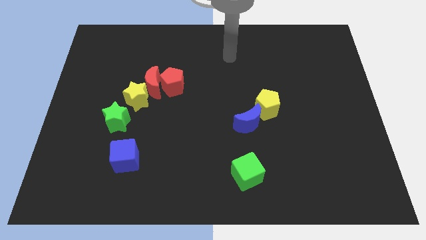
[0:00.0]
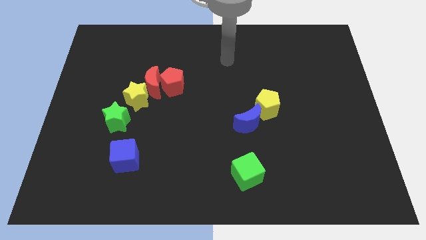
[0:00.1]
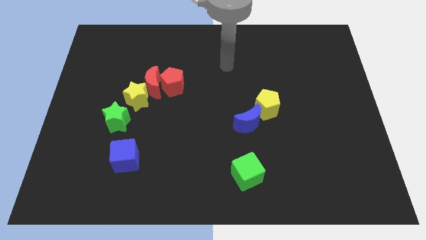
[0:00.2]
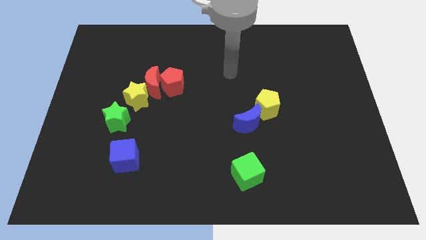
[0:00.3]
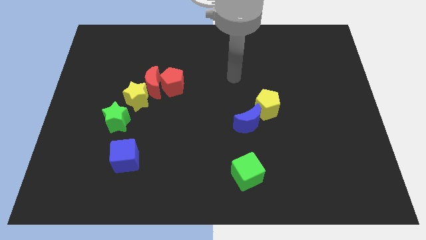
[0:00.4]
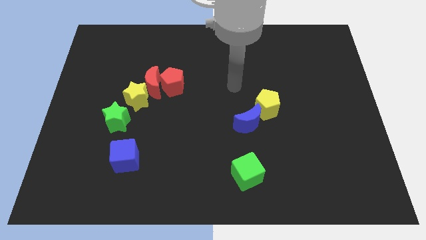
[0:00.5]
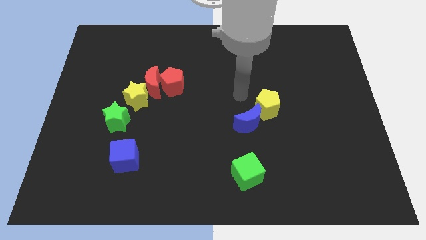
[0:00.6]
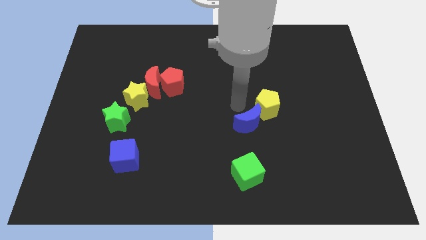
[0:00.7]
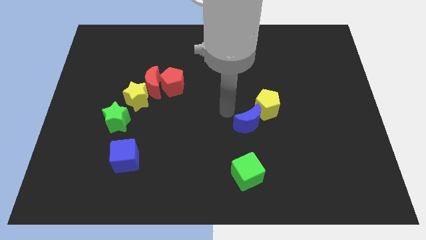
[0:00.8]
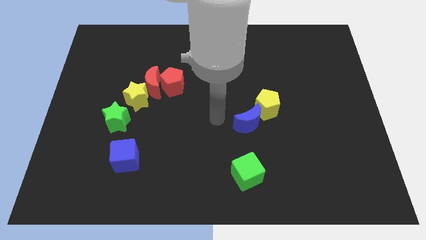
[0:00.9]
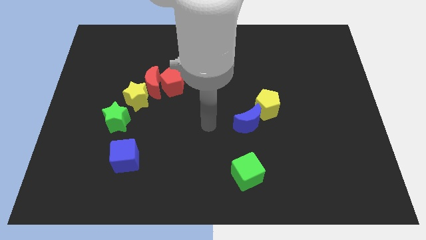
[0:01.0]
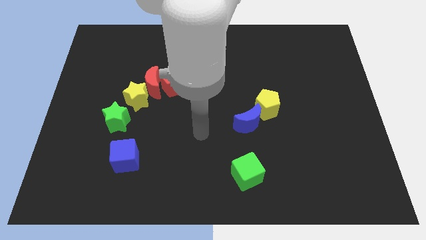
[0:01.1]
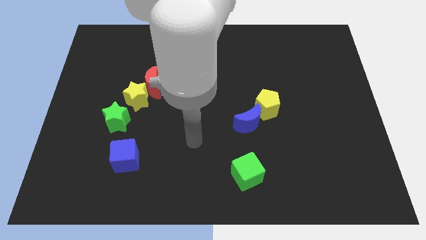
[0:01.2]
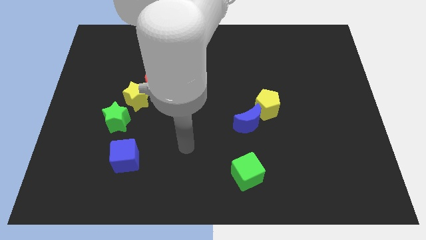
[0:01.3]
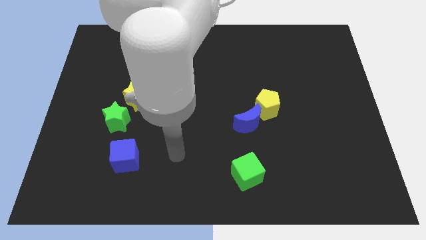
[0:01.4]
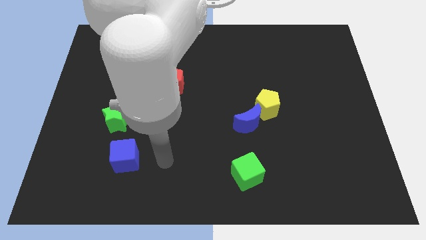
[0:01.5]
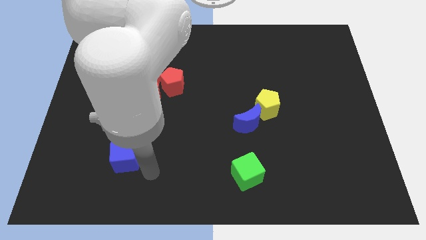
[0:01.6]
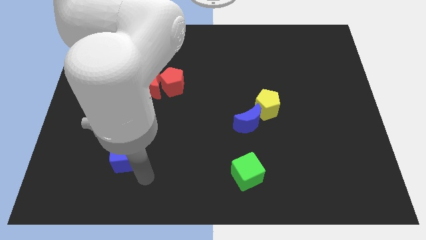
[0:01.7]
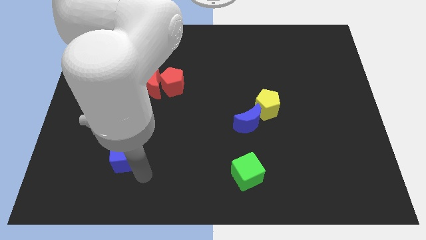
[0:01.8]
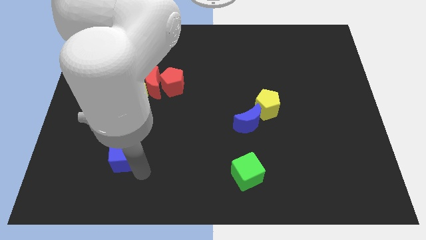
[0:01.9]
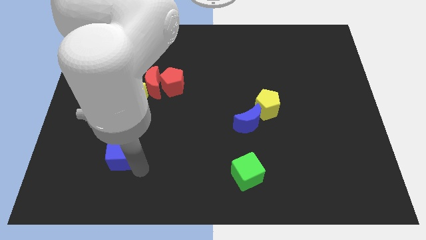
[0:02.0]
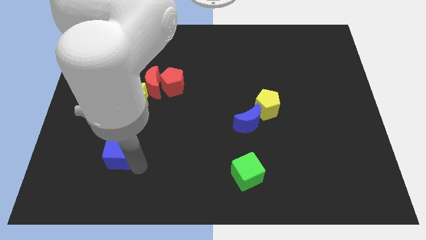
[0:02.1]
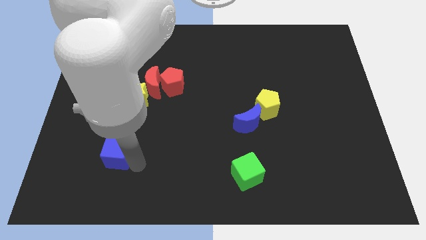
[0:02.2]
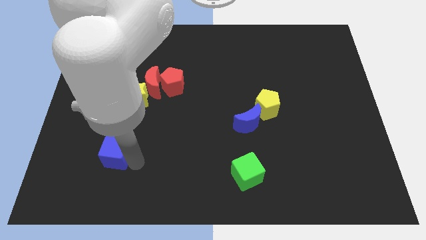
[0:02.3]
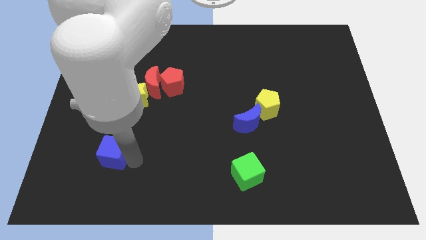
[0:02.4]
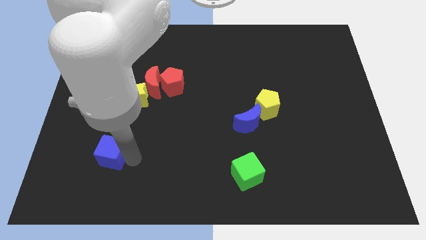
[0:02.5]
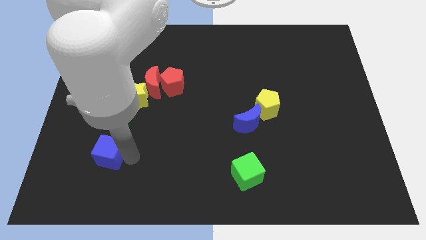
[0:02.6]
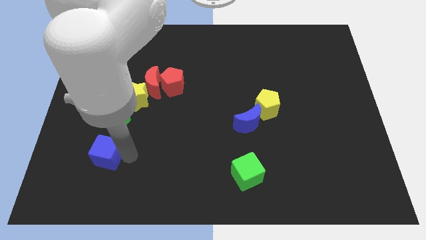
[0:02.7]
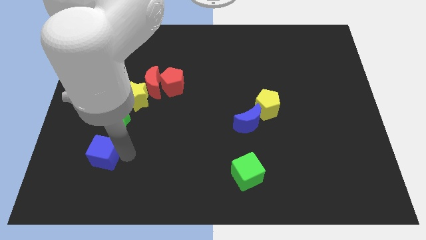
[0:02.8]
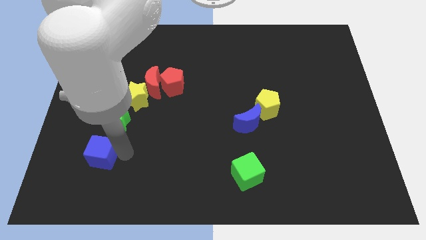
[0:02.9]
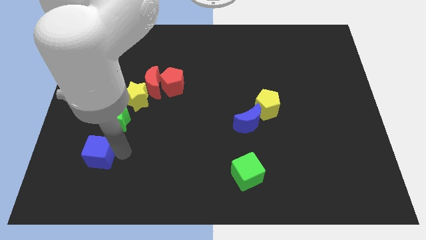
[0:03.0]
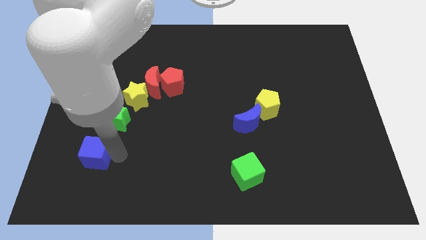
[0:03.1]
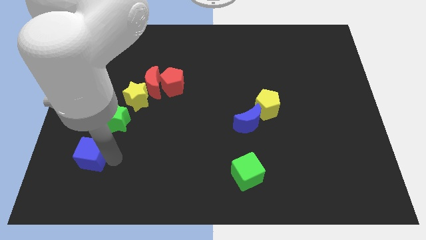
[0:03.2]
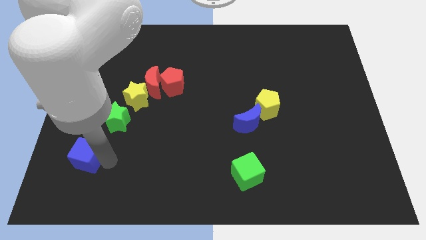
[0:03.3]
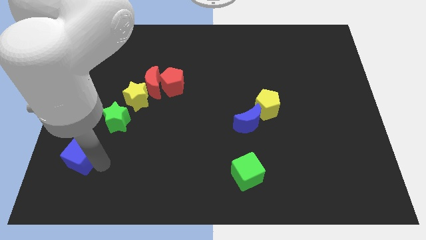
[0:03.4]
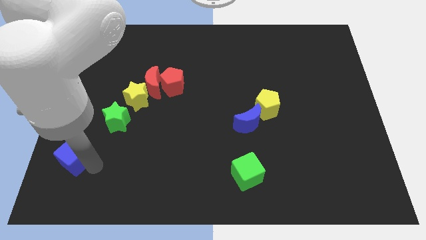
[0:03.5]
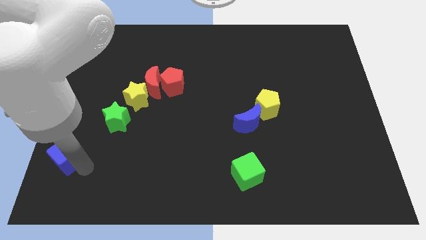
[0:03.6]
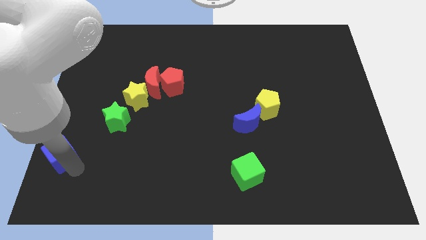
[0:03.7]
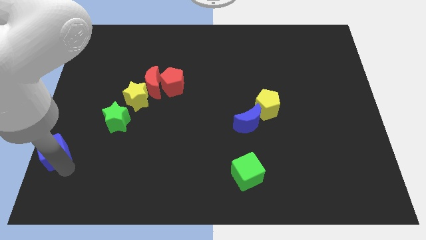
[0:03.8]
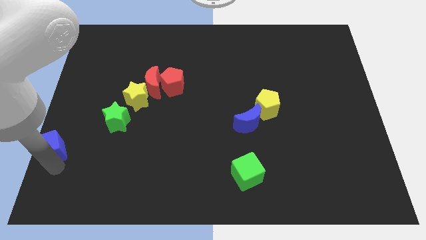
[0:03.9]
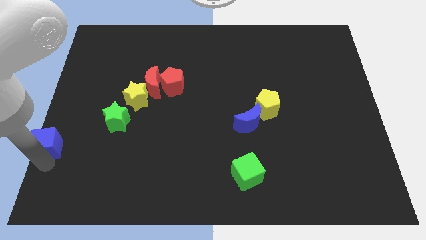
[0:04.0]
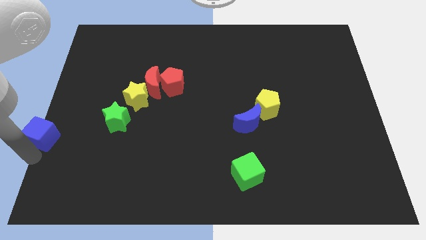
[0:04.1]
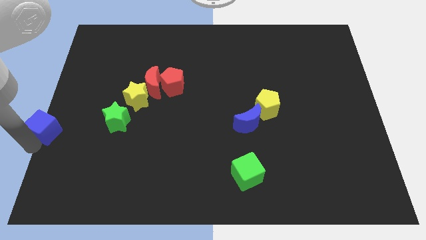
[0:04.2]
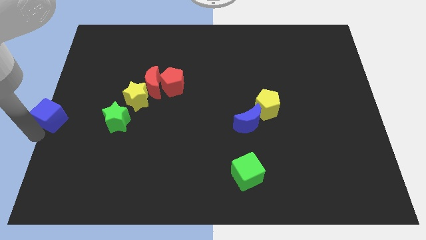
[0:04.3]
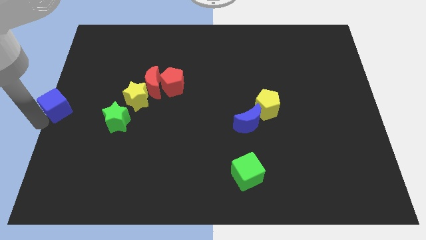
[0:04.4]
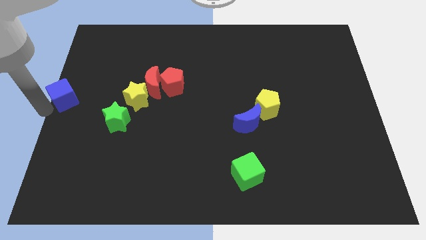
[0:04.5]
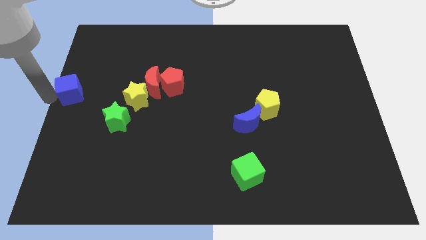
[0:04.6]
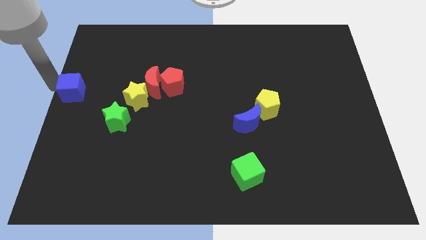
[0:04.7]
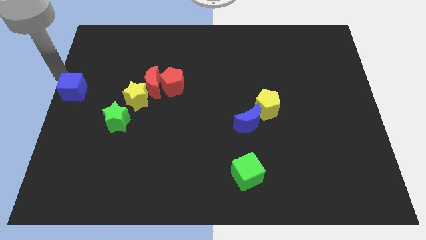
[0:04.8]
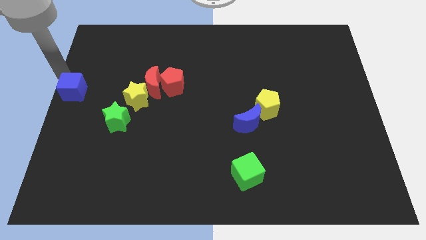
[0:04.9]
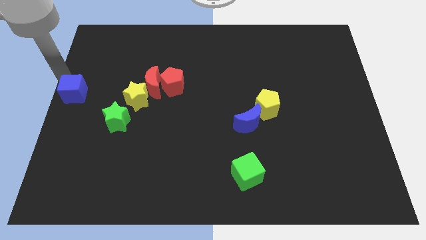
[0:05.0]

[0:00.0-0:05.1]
push the blue cube left of the yellow star

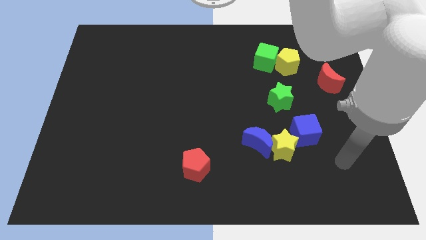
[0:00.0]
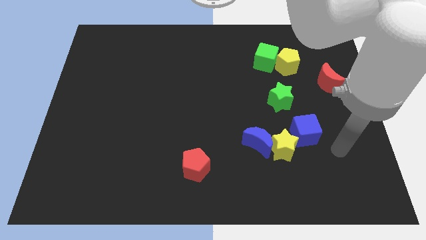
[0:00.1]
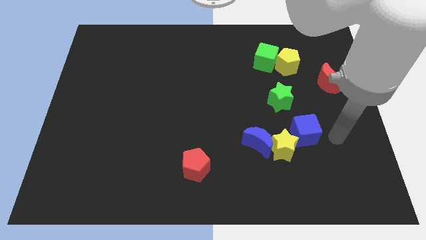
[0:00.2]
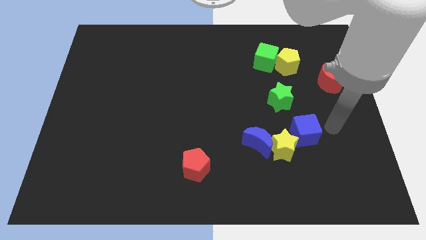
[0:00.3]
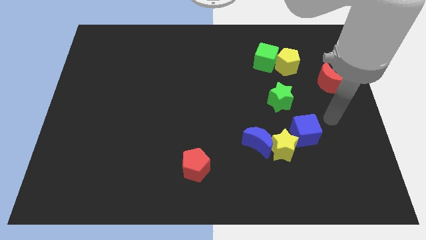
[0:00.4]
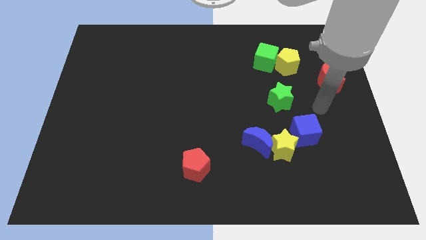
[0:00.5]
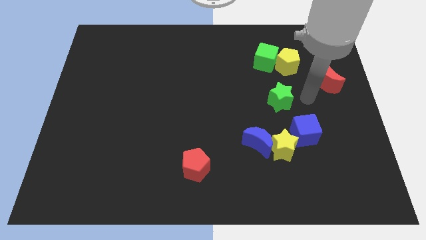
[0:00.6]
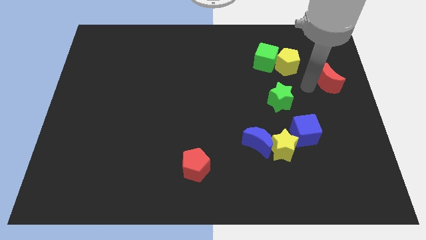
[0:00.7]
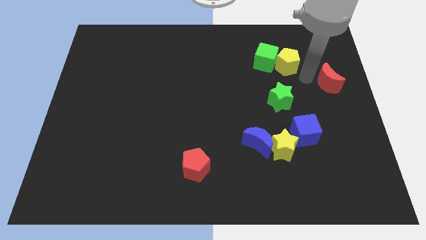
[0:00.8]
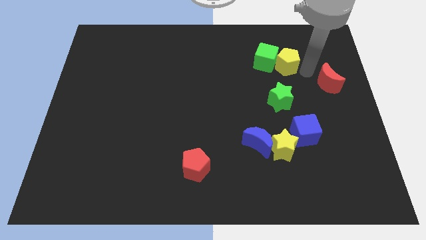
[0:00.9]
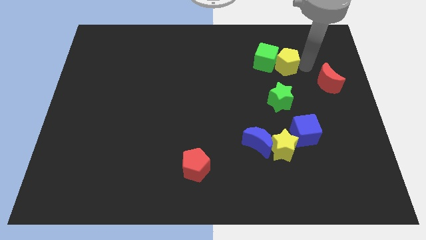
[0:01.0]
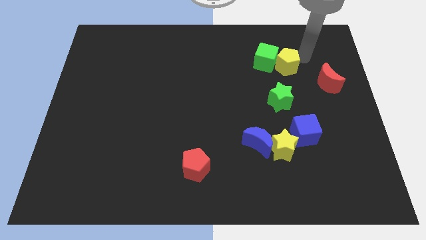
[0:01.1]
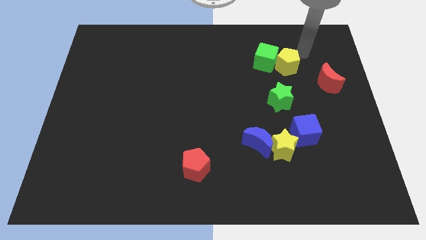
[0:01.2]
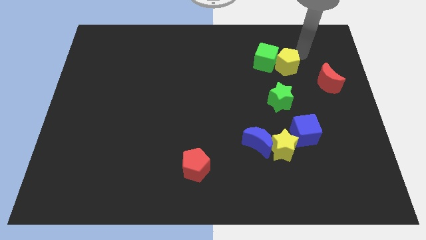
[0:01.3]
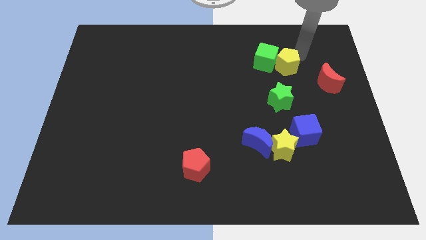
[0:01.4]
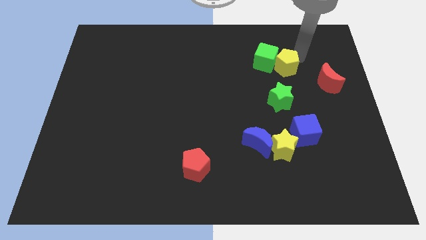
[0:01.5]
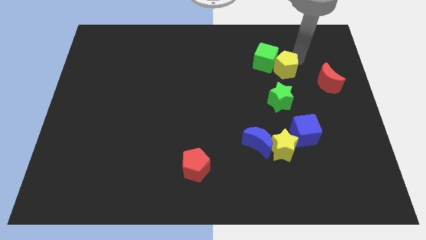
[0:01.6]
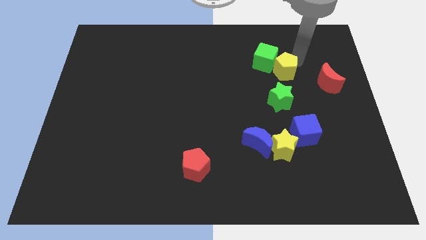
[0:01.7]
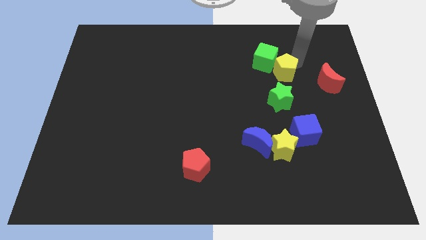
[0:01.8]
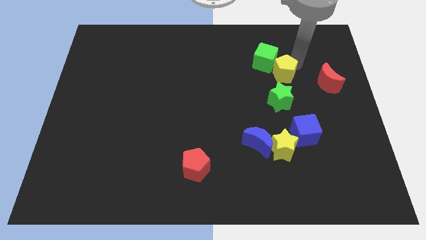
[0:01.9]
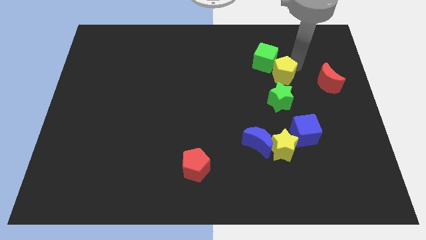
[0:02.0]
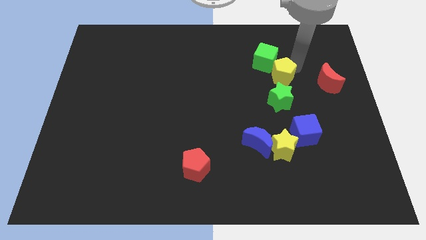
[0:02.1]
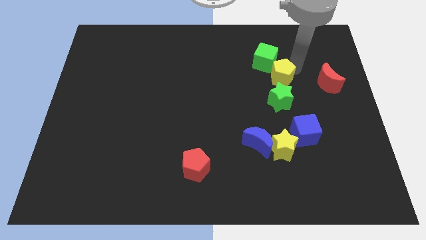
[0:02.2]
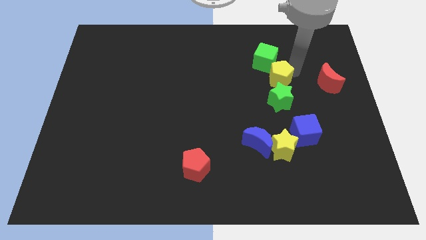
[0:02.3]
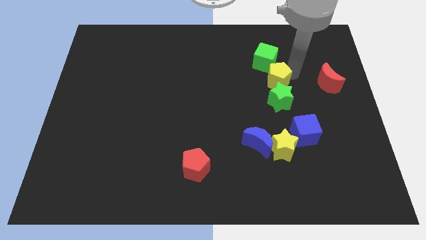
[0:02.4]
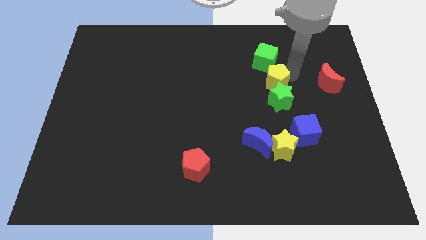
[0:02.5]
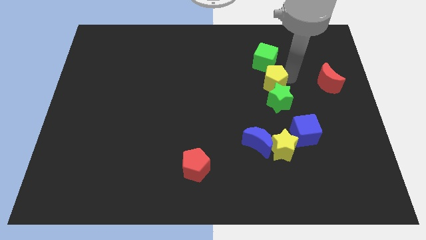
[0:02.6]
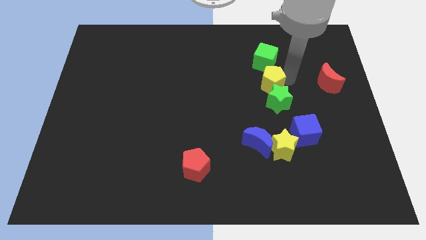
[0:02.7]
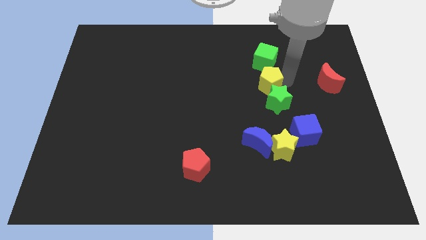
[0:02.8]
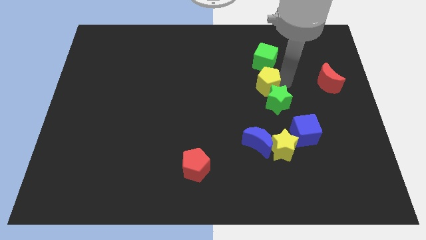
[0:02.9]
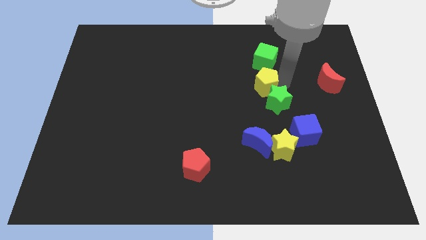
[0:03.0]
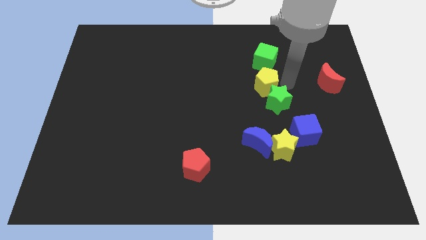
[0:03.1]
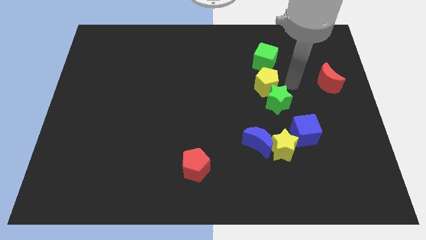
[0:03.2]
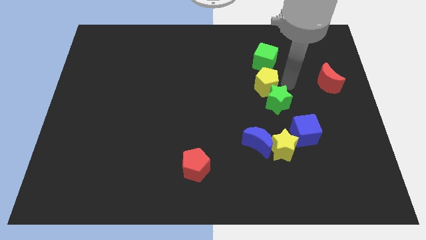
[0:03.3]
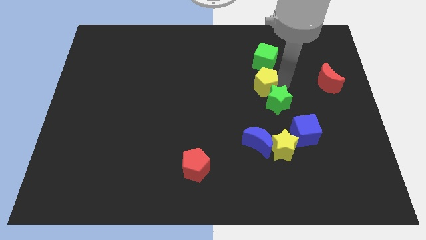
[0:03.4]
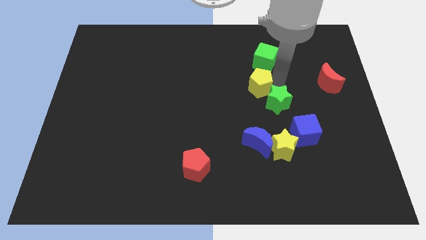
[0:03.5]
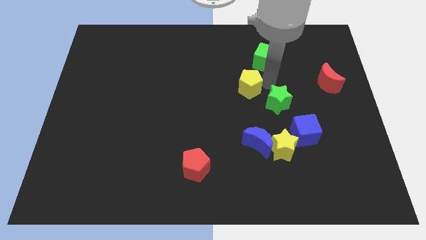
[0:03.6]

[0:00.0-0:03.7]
move the yellow pentagon left of the green star
